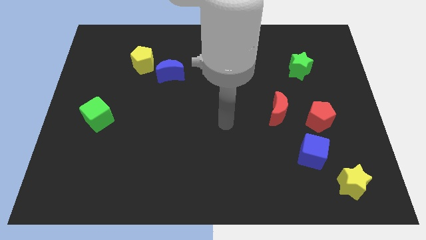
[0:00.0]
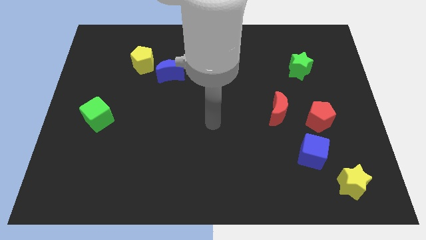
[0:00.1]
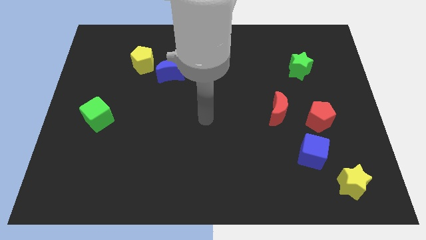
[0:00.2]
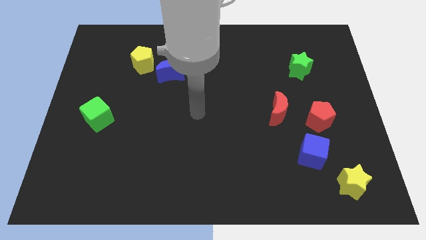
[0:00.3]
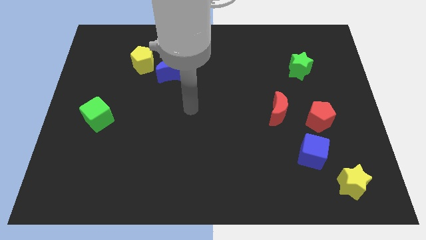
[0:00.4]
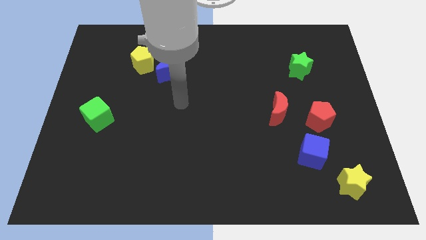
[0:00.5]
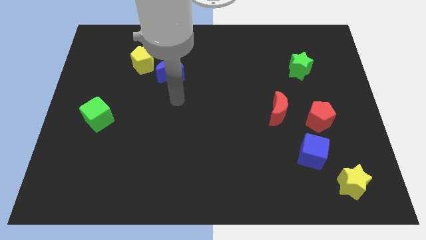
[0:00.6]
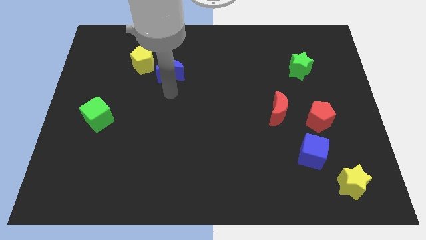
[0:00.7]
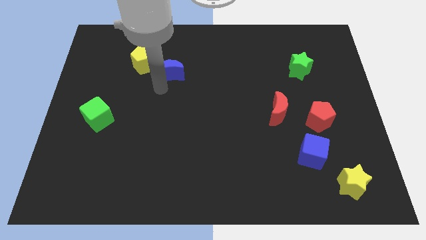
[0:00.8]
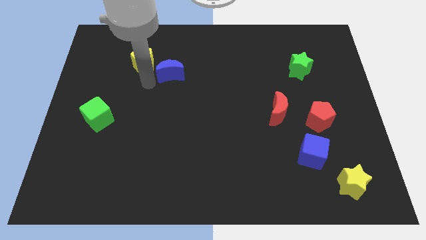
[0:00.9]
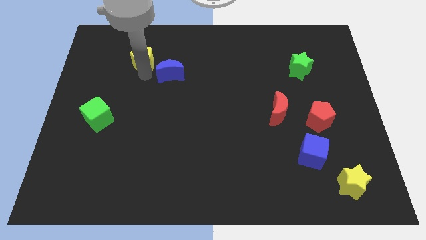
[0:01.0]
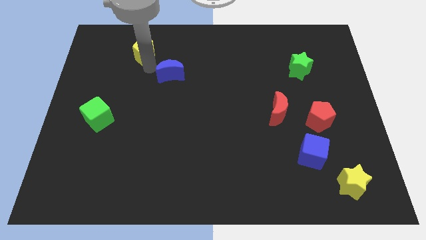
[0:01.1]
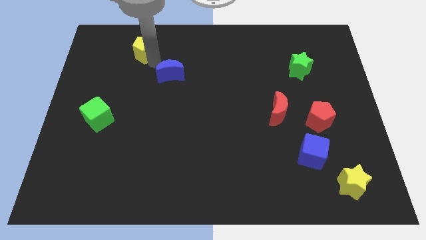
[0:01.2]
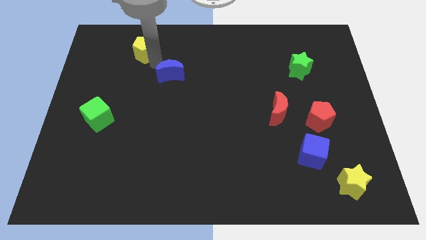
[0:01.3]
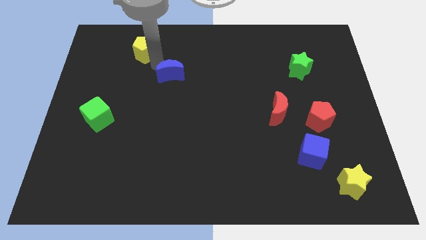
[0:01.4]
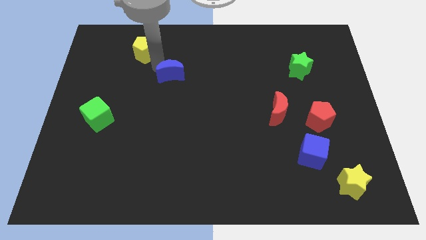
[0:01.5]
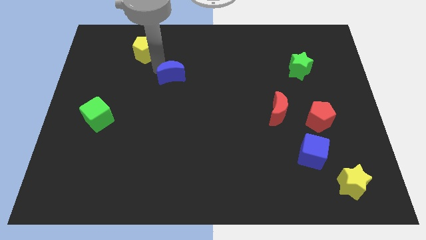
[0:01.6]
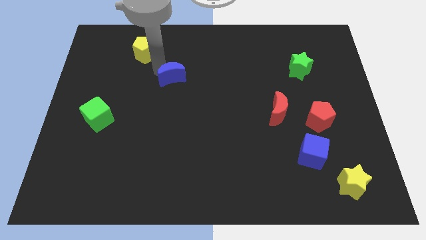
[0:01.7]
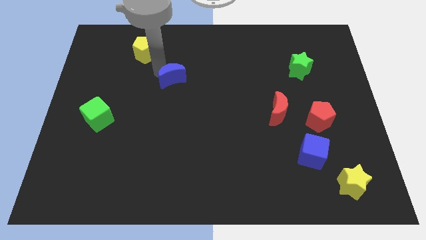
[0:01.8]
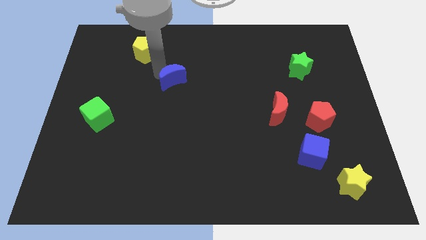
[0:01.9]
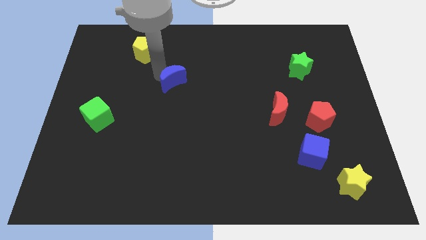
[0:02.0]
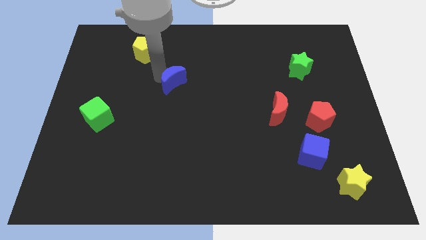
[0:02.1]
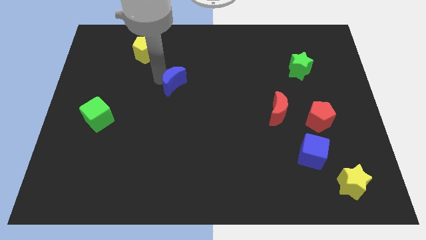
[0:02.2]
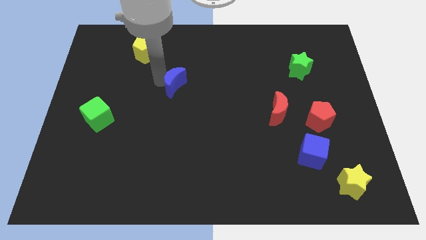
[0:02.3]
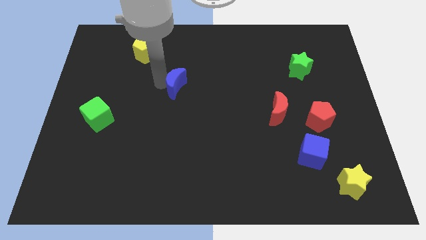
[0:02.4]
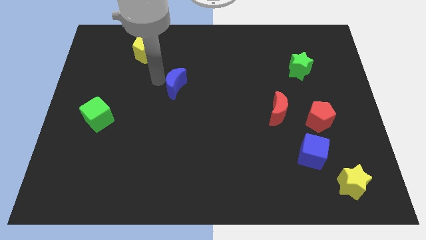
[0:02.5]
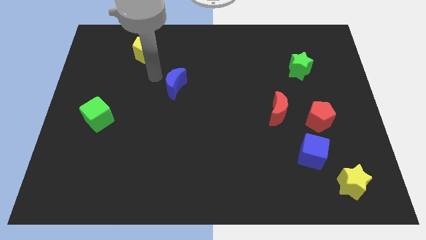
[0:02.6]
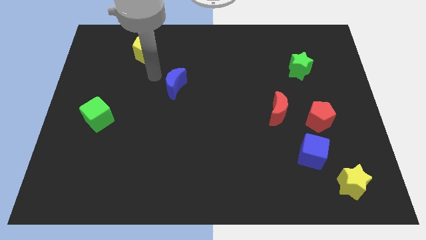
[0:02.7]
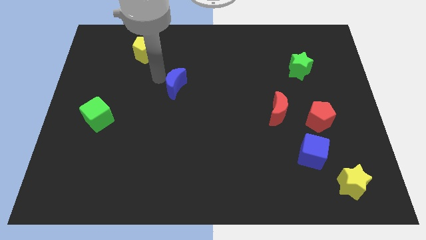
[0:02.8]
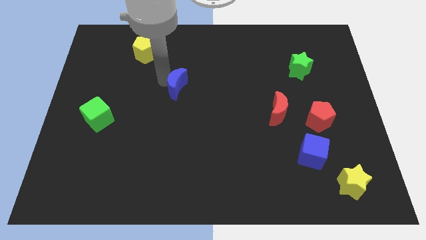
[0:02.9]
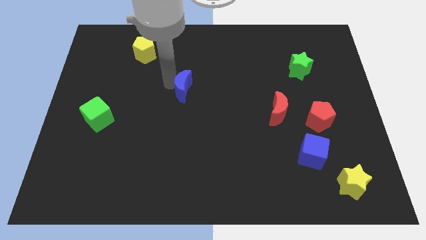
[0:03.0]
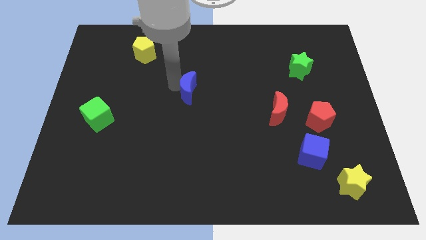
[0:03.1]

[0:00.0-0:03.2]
move the blue moon a little bit diagonally down and to the right

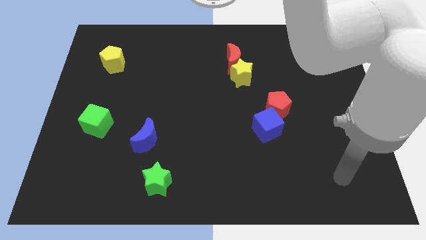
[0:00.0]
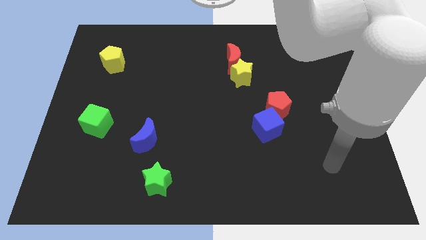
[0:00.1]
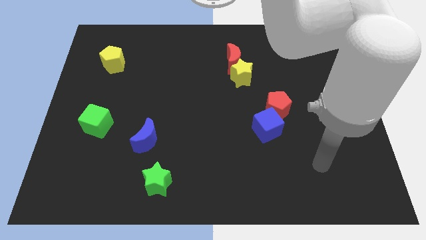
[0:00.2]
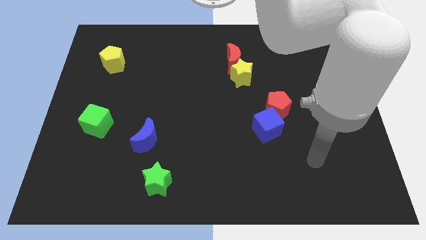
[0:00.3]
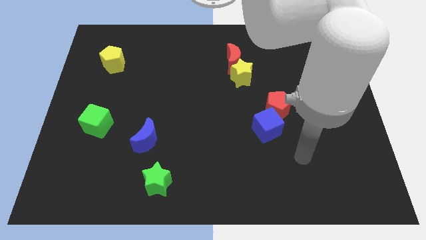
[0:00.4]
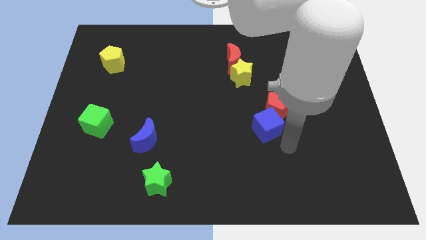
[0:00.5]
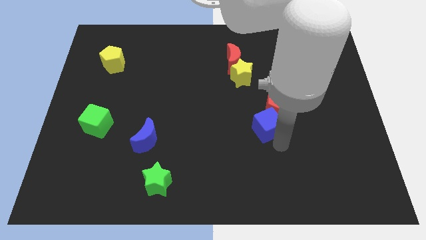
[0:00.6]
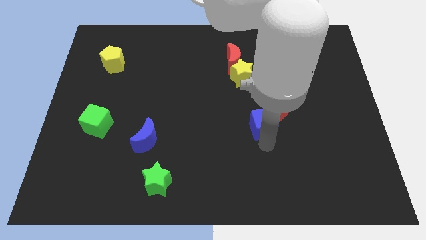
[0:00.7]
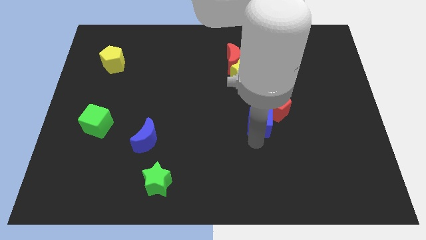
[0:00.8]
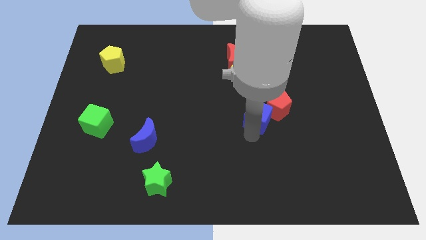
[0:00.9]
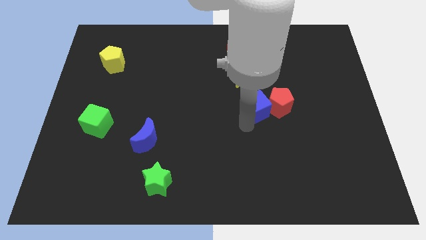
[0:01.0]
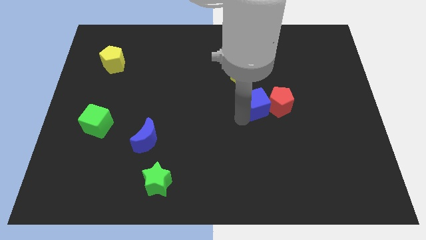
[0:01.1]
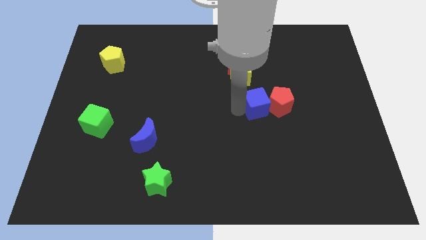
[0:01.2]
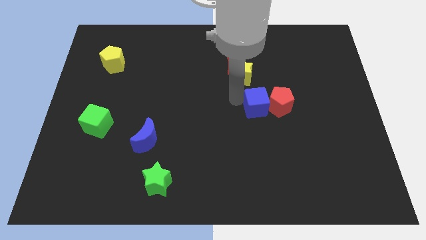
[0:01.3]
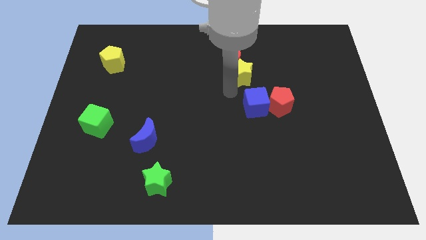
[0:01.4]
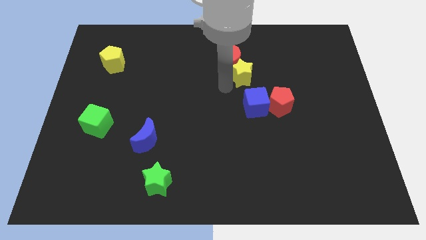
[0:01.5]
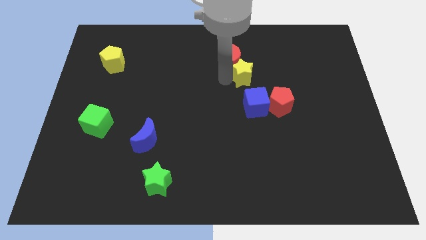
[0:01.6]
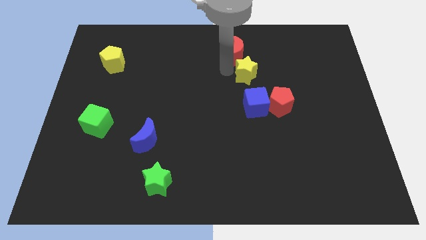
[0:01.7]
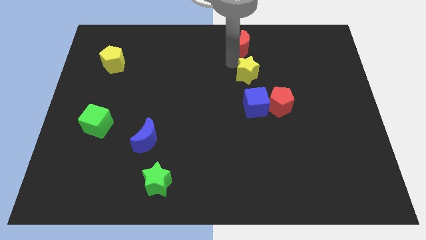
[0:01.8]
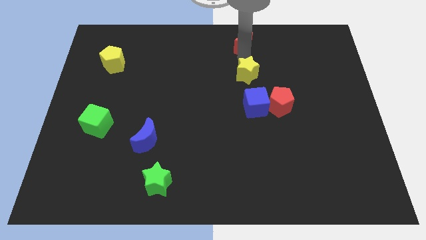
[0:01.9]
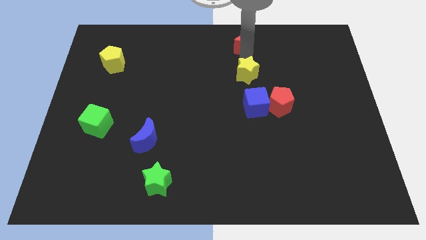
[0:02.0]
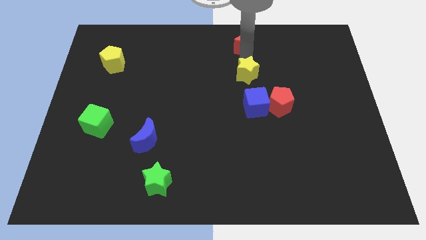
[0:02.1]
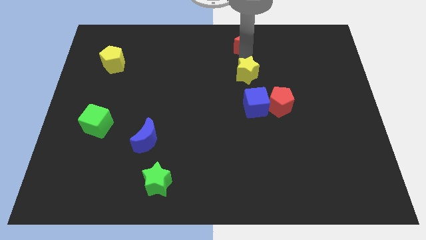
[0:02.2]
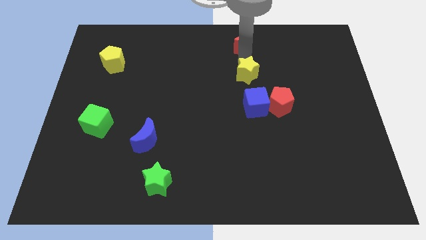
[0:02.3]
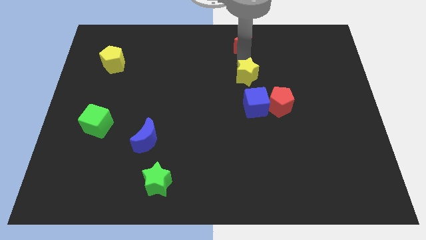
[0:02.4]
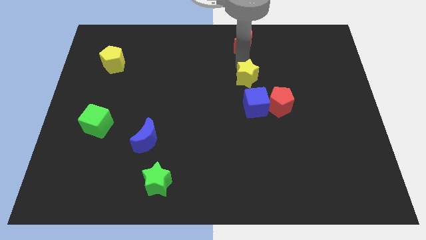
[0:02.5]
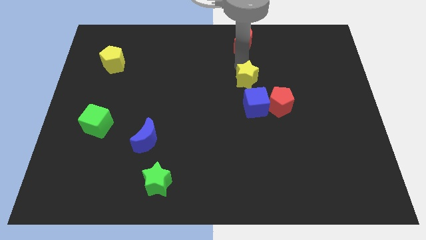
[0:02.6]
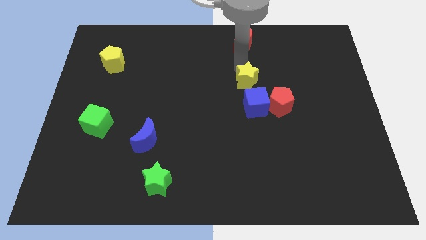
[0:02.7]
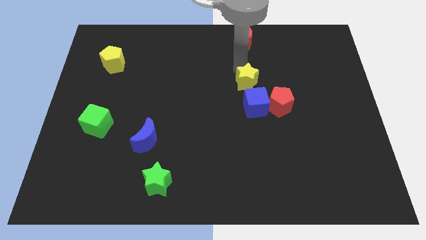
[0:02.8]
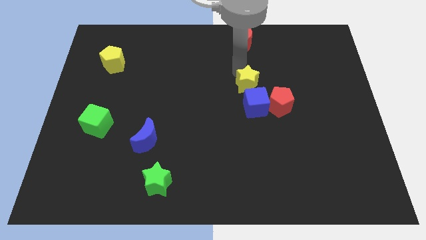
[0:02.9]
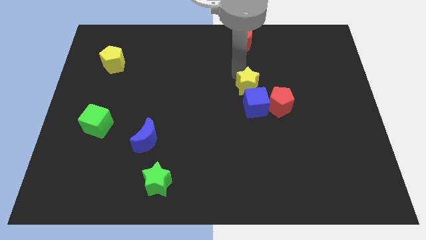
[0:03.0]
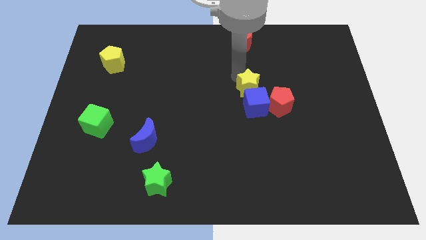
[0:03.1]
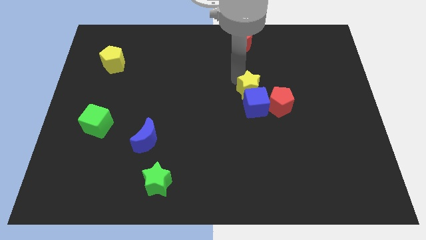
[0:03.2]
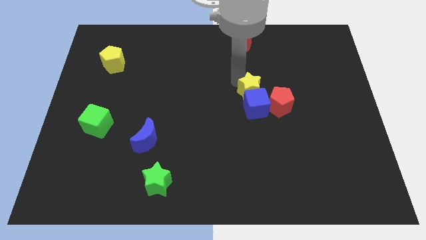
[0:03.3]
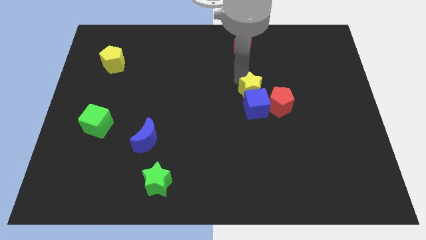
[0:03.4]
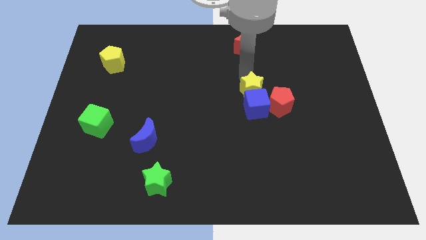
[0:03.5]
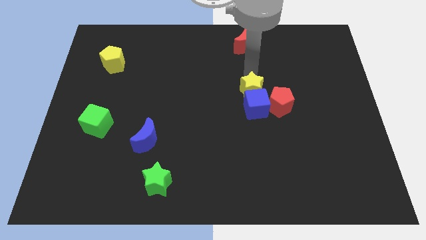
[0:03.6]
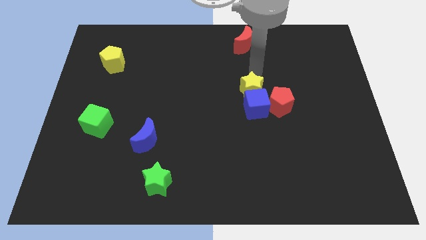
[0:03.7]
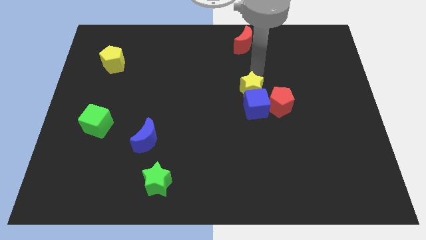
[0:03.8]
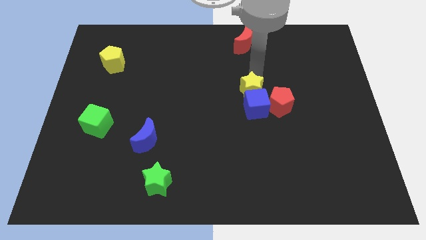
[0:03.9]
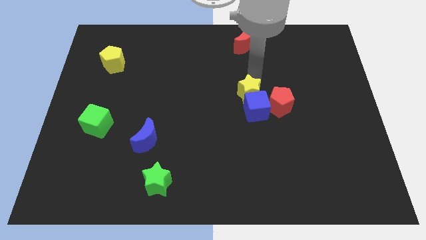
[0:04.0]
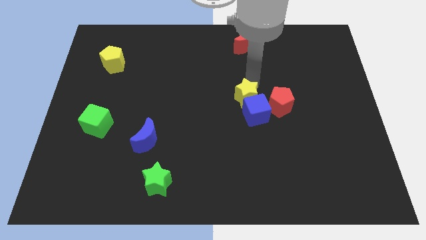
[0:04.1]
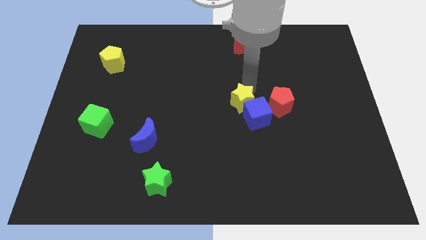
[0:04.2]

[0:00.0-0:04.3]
slightly push the yellow star down
